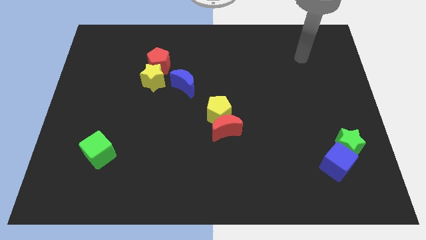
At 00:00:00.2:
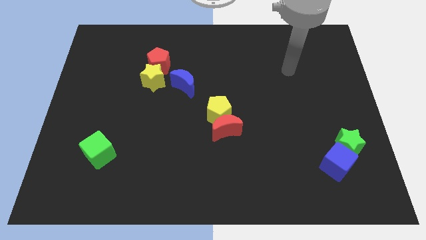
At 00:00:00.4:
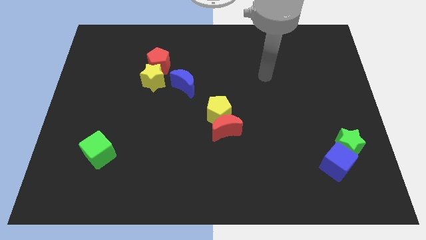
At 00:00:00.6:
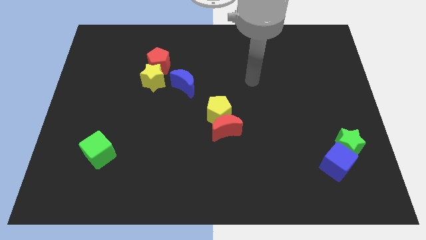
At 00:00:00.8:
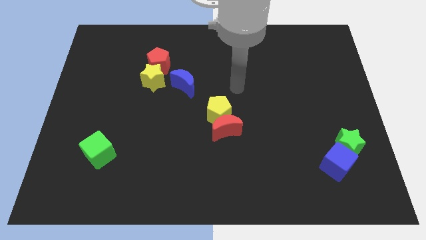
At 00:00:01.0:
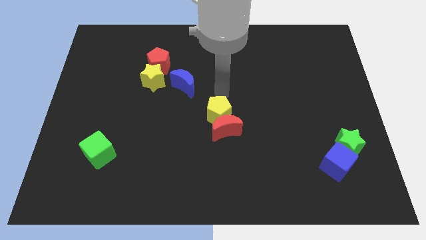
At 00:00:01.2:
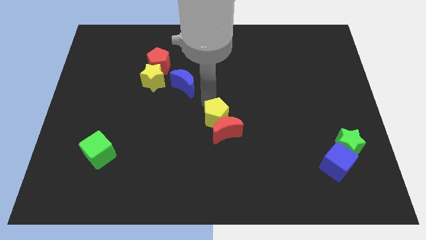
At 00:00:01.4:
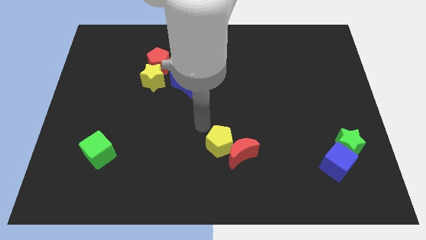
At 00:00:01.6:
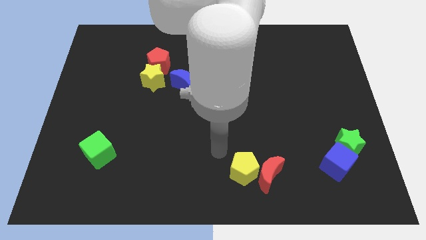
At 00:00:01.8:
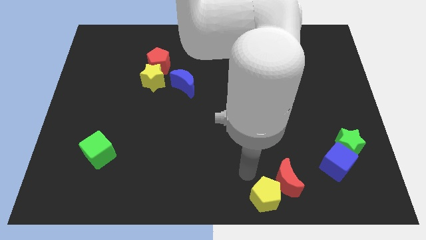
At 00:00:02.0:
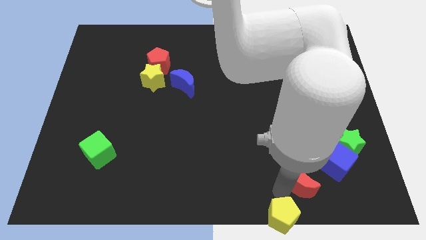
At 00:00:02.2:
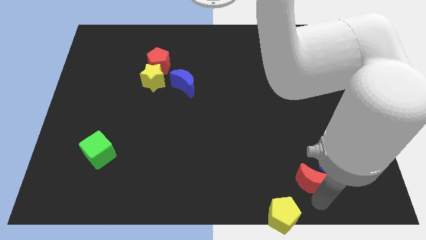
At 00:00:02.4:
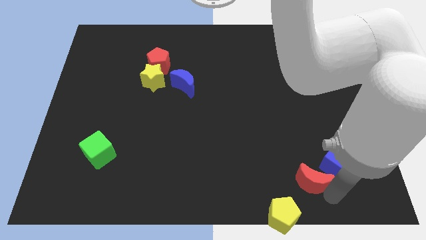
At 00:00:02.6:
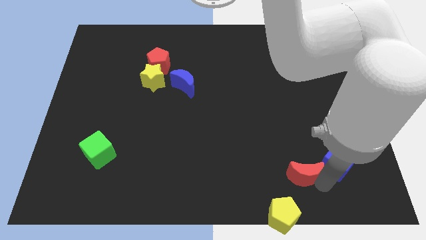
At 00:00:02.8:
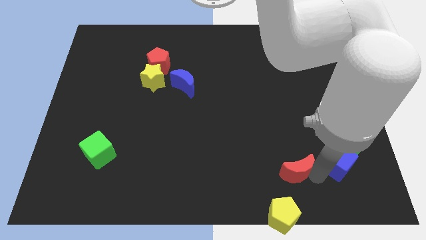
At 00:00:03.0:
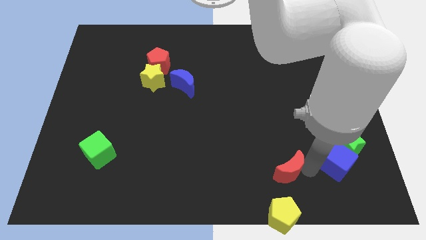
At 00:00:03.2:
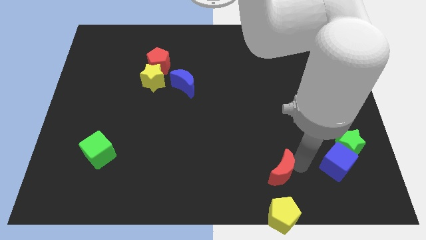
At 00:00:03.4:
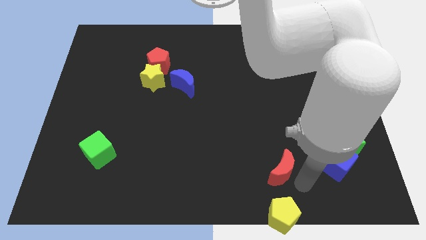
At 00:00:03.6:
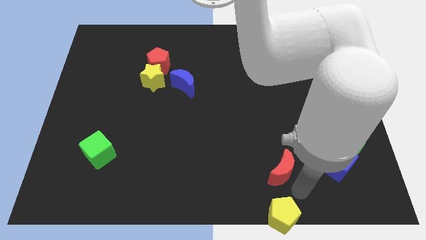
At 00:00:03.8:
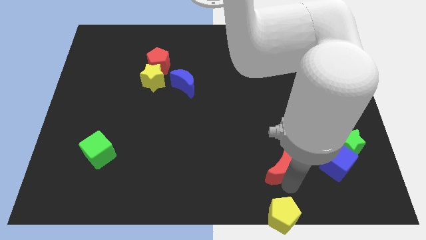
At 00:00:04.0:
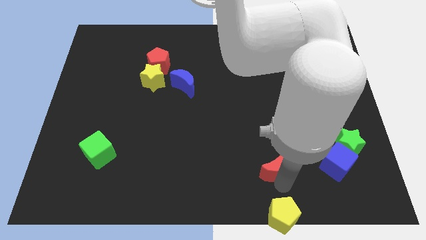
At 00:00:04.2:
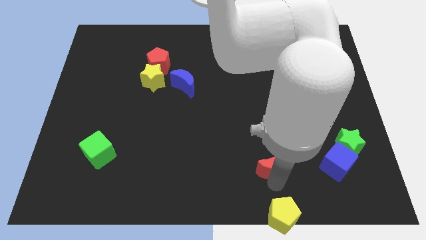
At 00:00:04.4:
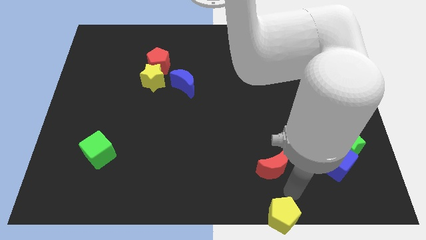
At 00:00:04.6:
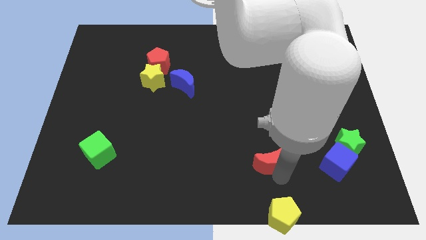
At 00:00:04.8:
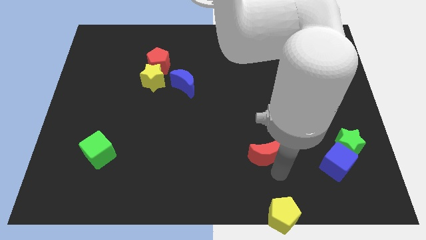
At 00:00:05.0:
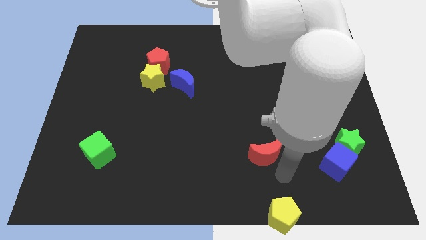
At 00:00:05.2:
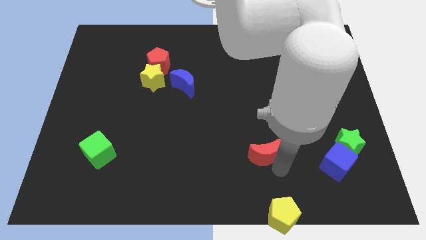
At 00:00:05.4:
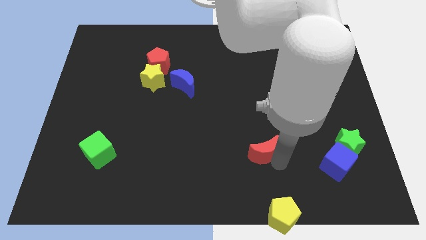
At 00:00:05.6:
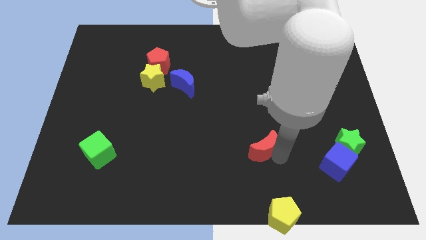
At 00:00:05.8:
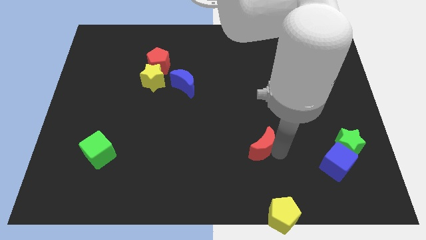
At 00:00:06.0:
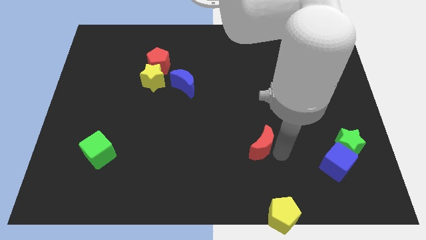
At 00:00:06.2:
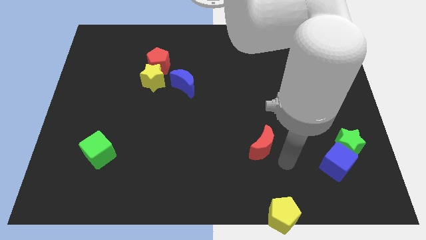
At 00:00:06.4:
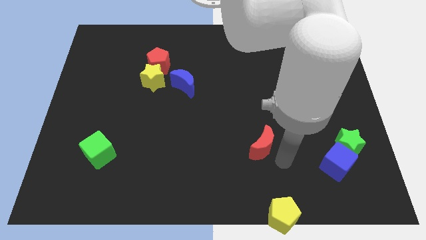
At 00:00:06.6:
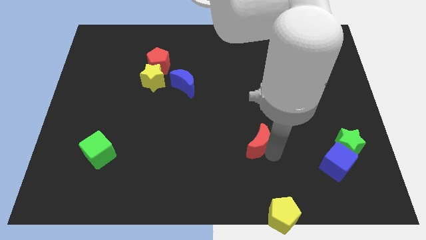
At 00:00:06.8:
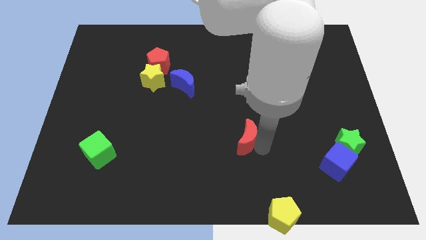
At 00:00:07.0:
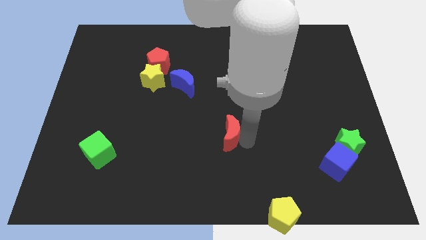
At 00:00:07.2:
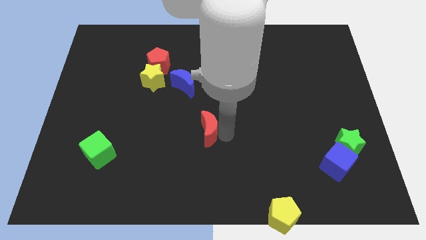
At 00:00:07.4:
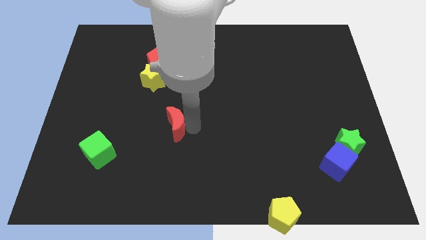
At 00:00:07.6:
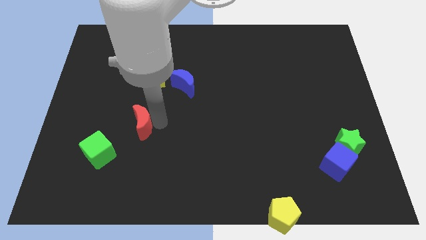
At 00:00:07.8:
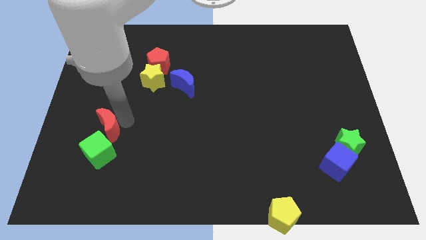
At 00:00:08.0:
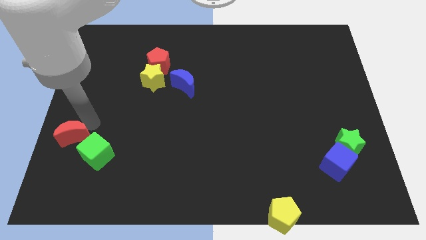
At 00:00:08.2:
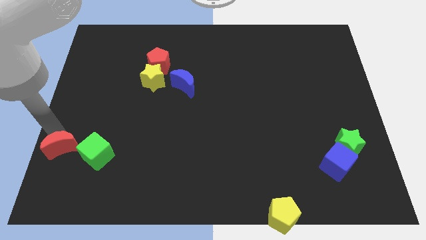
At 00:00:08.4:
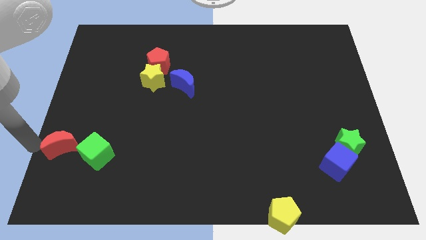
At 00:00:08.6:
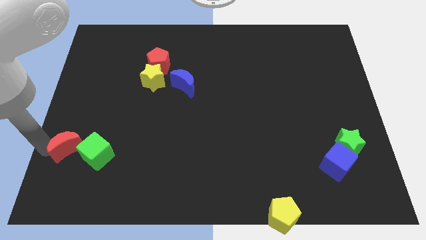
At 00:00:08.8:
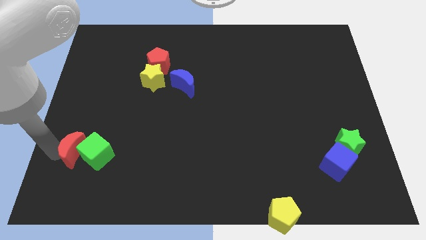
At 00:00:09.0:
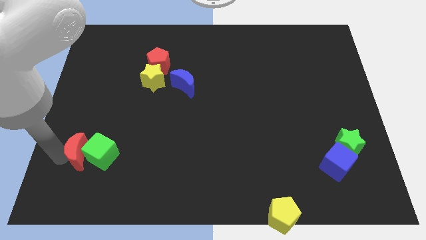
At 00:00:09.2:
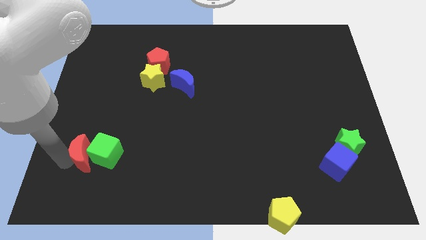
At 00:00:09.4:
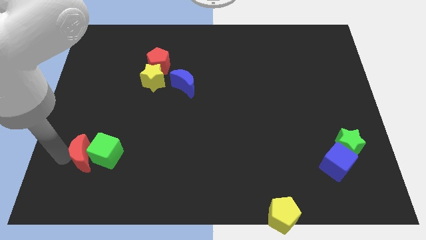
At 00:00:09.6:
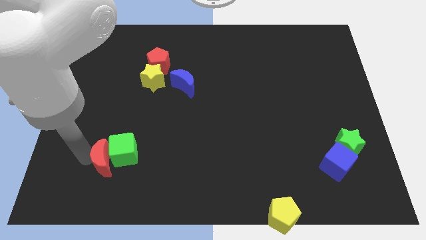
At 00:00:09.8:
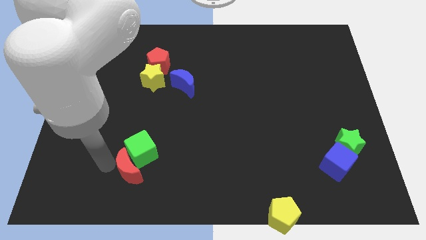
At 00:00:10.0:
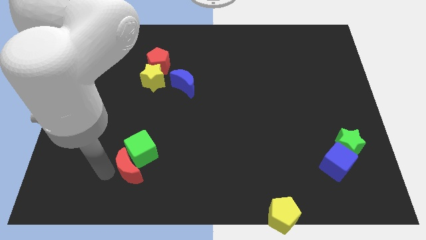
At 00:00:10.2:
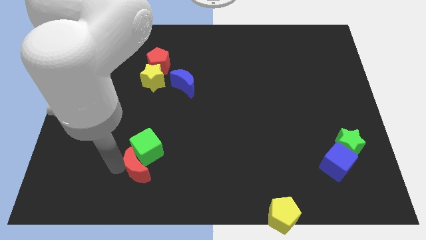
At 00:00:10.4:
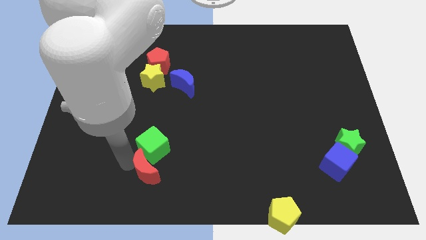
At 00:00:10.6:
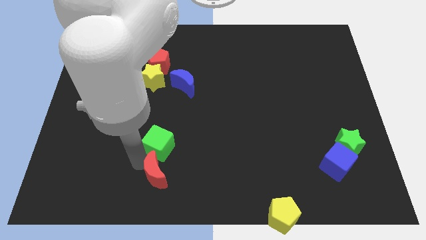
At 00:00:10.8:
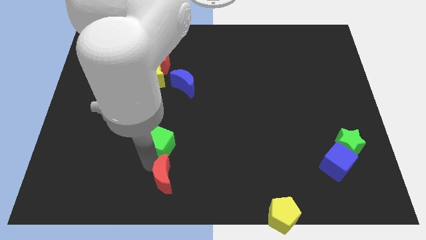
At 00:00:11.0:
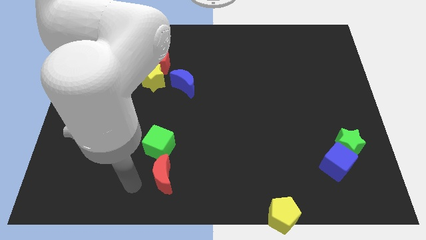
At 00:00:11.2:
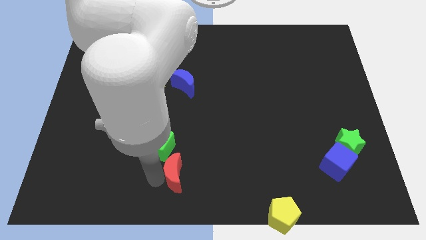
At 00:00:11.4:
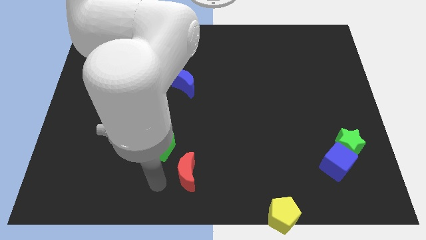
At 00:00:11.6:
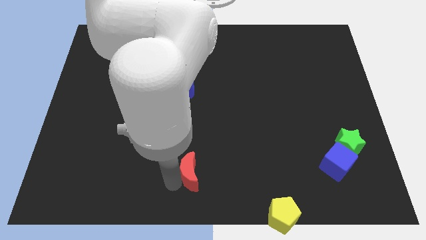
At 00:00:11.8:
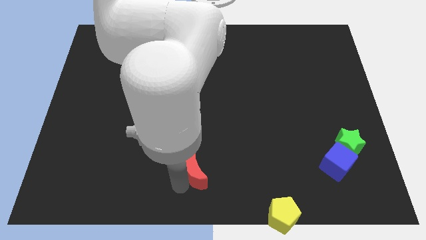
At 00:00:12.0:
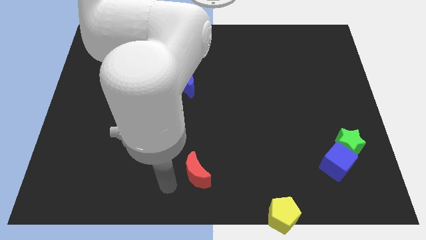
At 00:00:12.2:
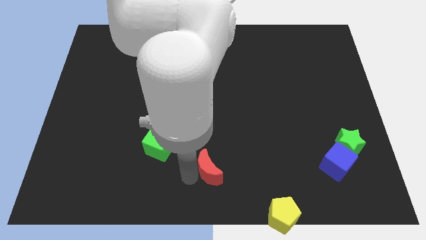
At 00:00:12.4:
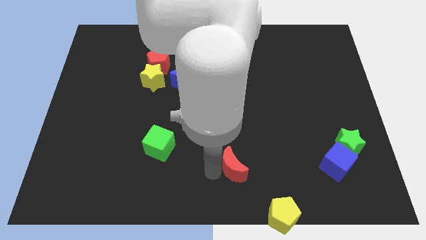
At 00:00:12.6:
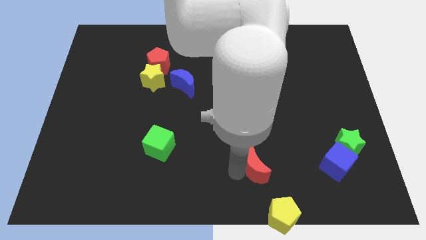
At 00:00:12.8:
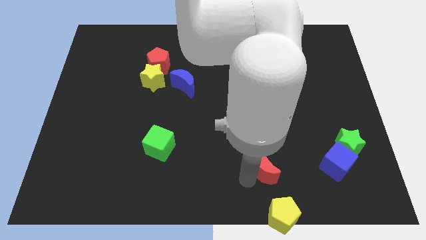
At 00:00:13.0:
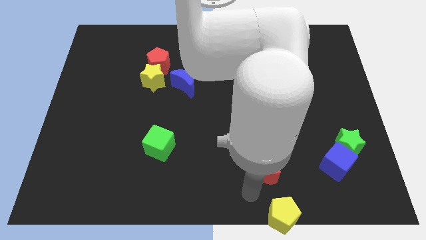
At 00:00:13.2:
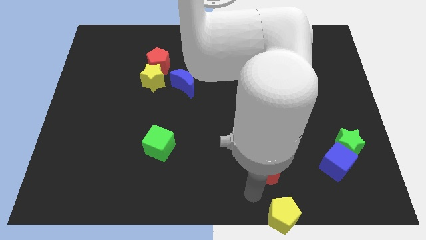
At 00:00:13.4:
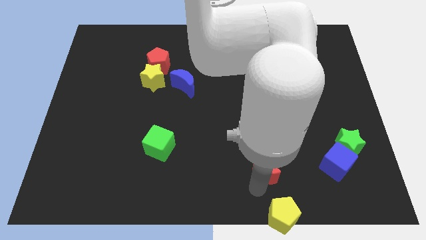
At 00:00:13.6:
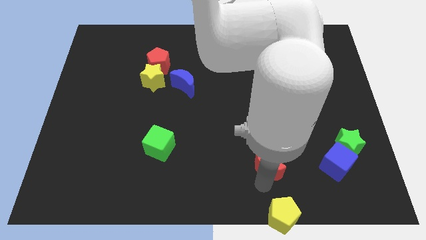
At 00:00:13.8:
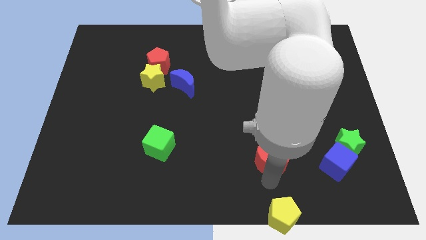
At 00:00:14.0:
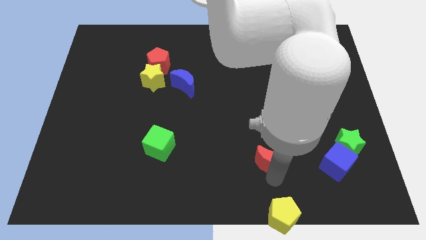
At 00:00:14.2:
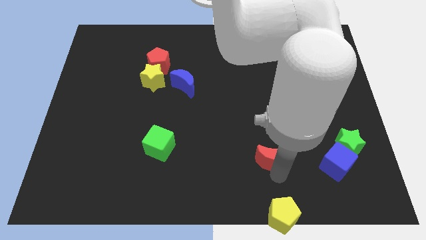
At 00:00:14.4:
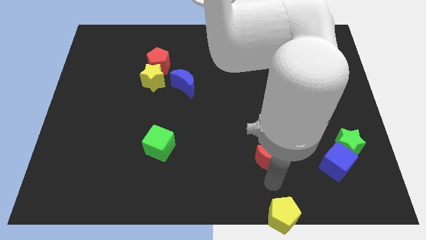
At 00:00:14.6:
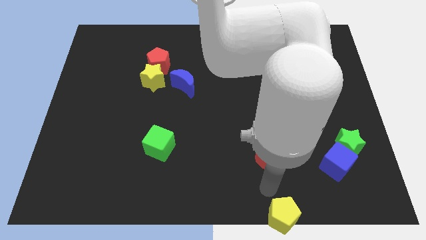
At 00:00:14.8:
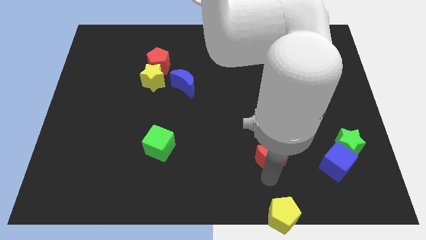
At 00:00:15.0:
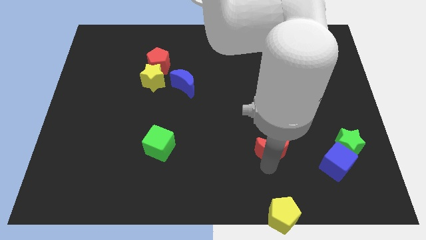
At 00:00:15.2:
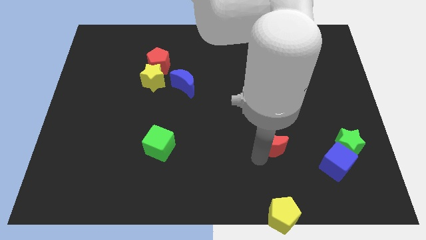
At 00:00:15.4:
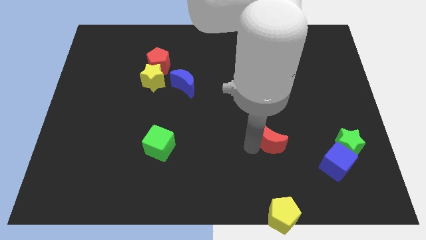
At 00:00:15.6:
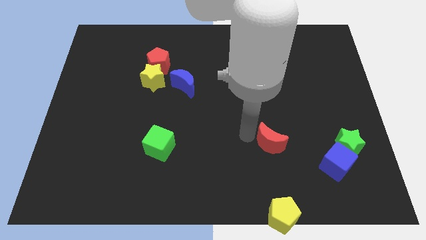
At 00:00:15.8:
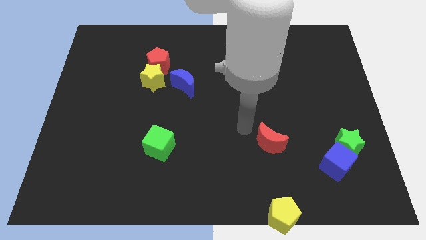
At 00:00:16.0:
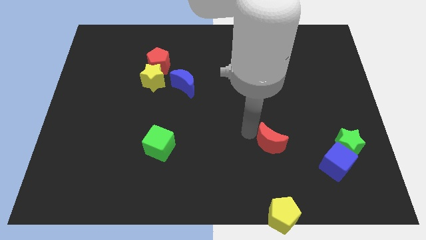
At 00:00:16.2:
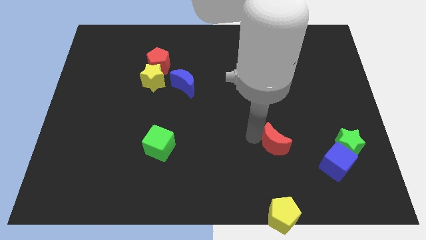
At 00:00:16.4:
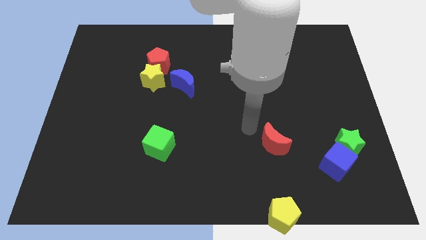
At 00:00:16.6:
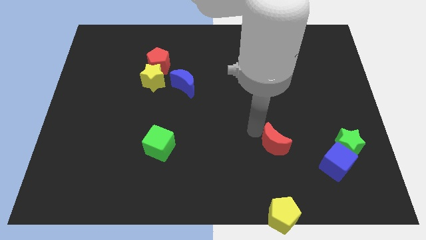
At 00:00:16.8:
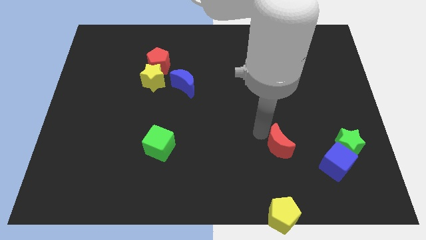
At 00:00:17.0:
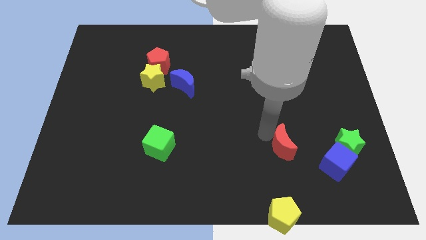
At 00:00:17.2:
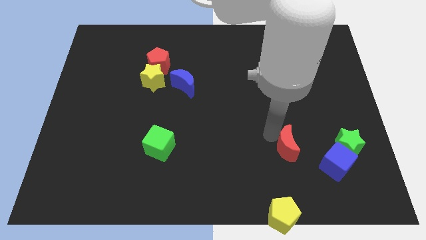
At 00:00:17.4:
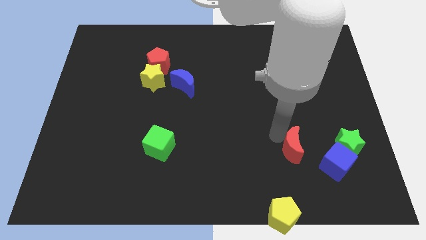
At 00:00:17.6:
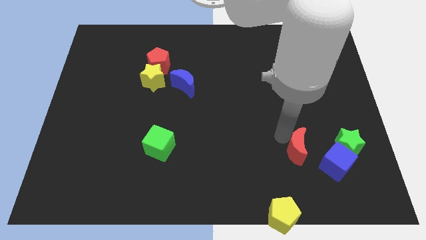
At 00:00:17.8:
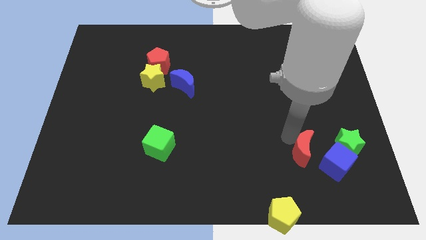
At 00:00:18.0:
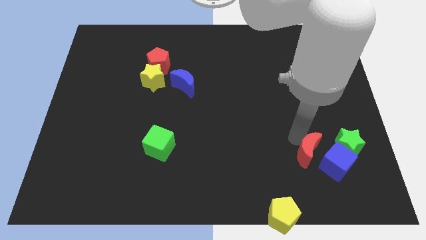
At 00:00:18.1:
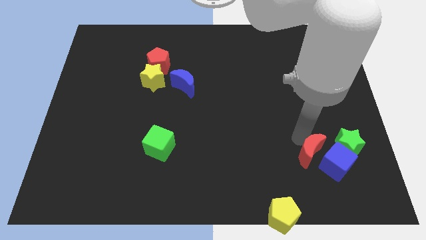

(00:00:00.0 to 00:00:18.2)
put the red moon to the blue cube
